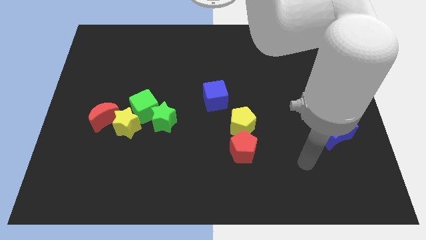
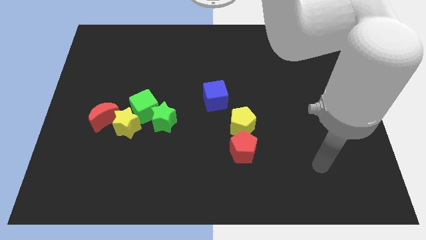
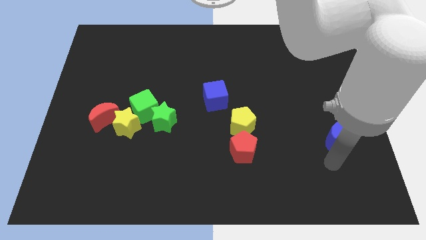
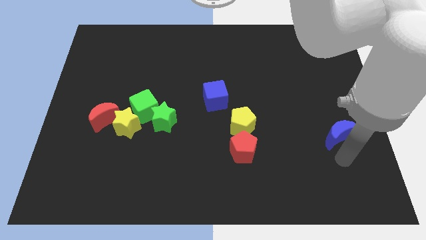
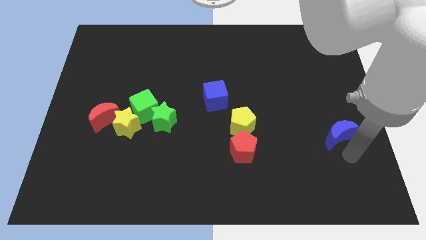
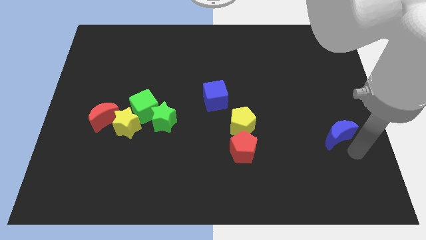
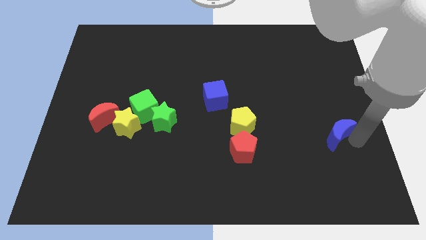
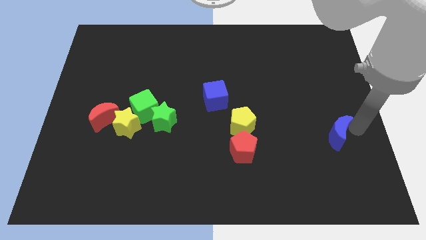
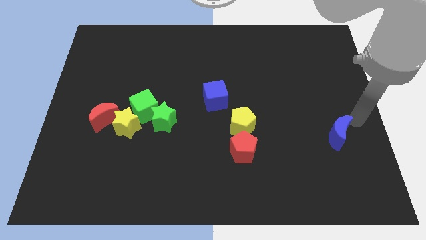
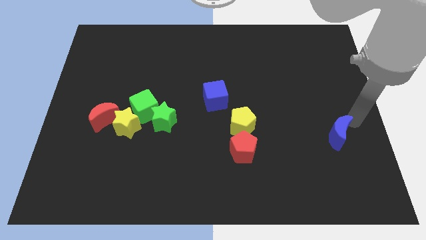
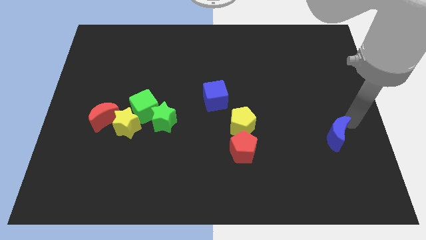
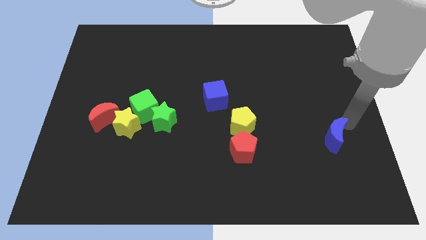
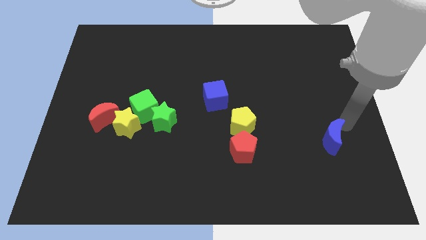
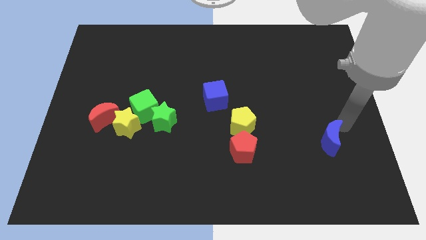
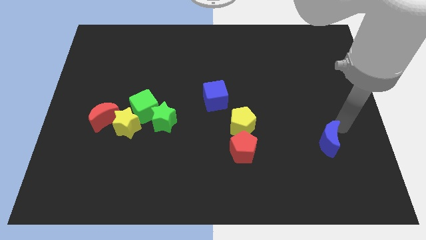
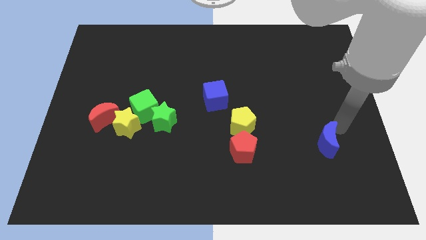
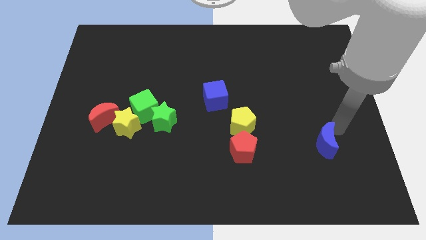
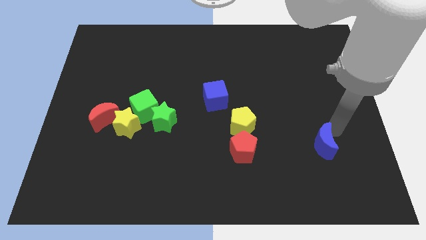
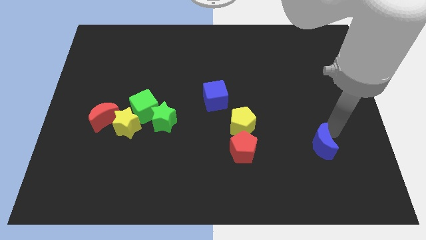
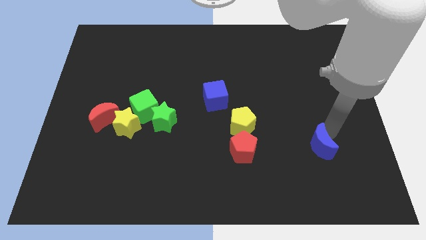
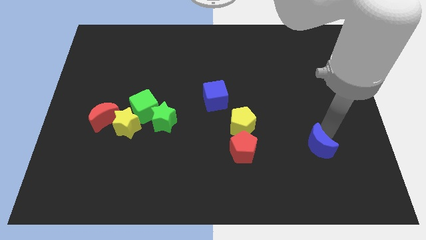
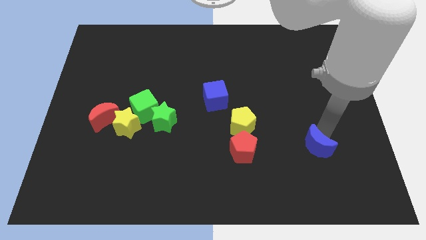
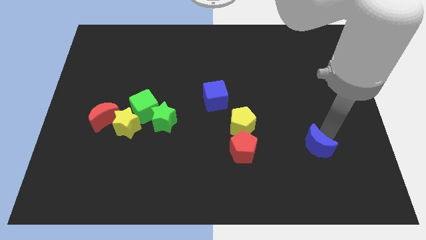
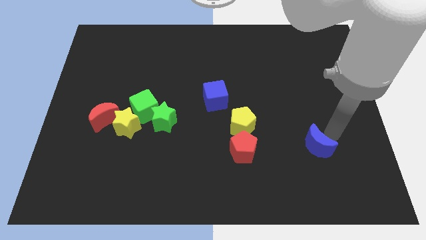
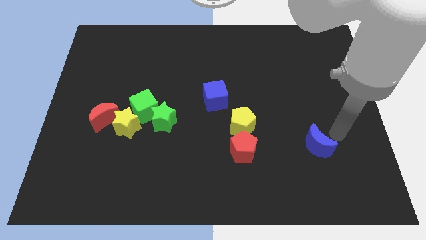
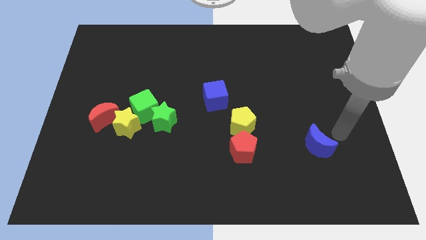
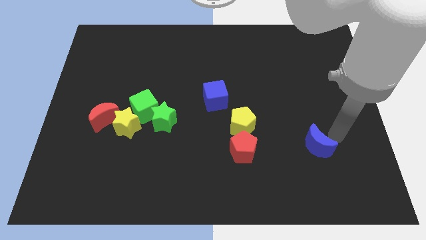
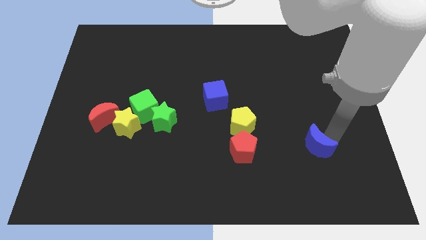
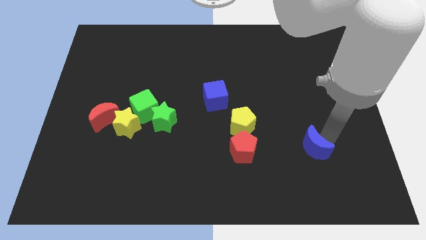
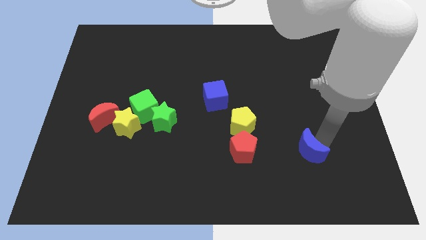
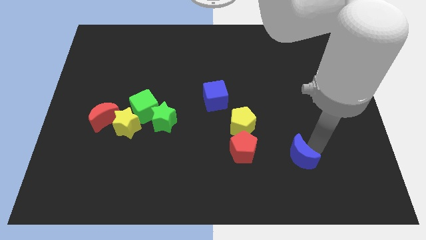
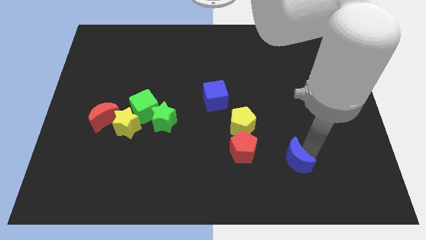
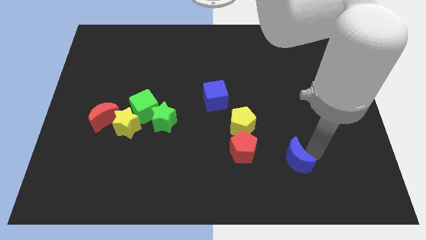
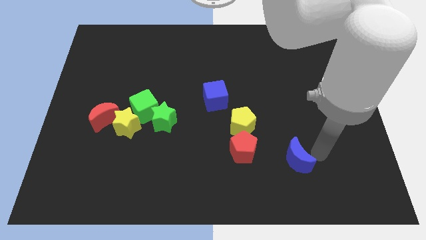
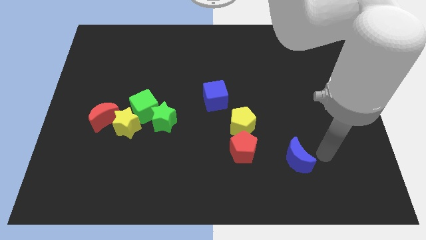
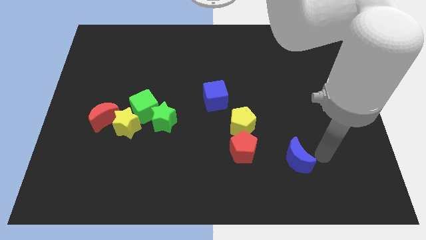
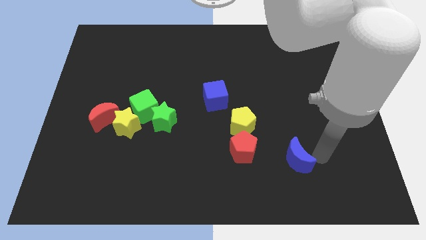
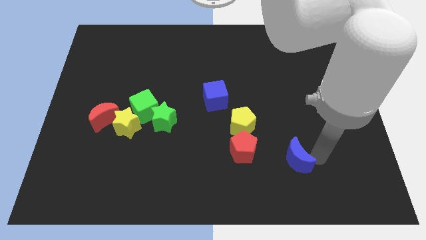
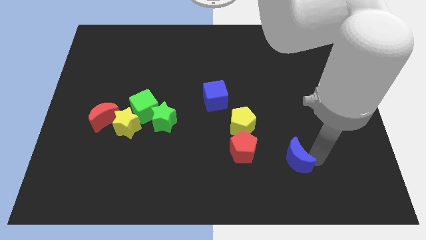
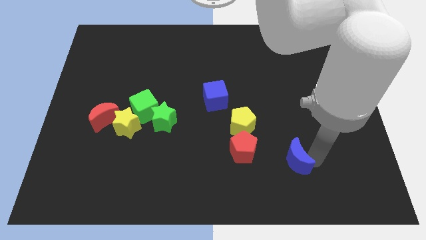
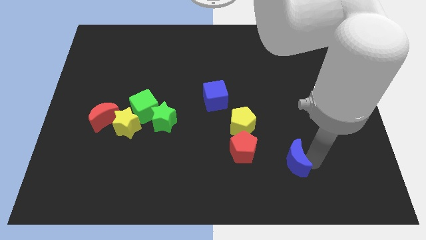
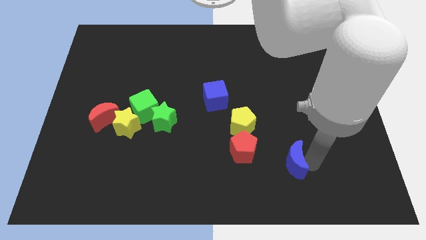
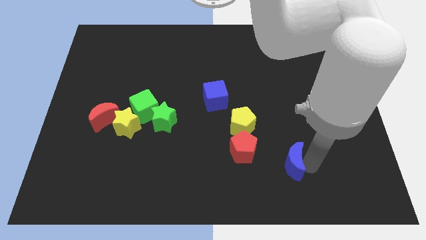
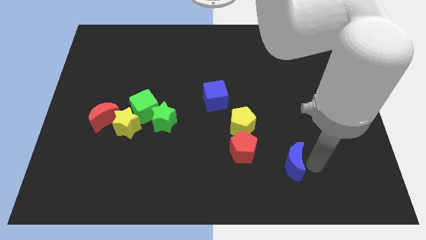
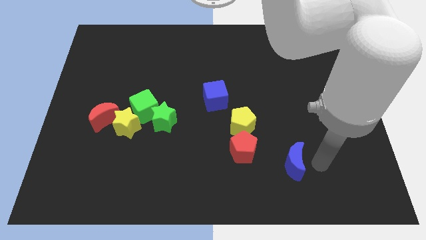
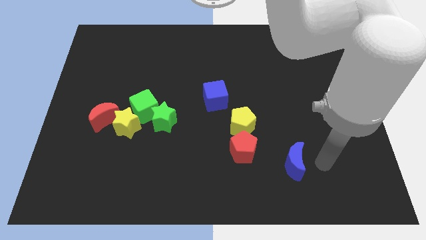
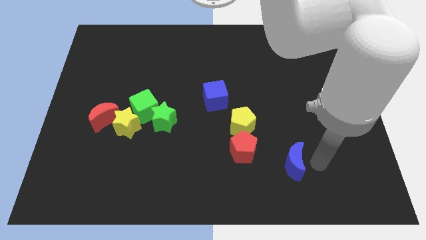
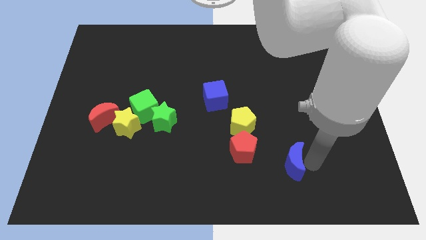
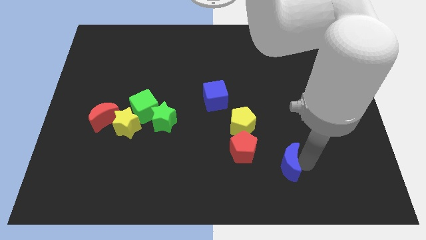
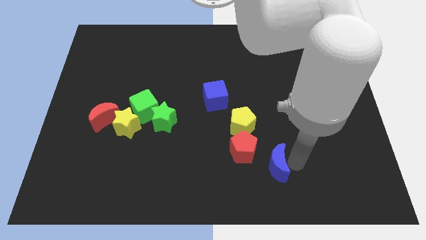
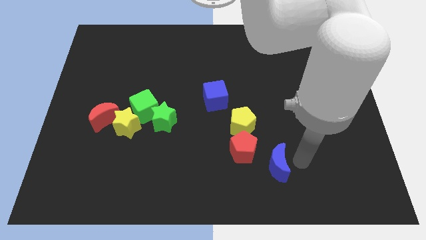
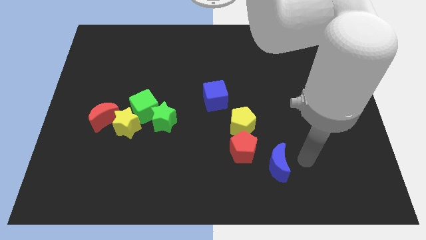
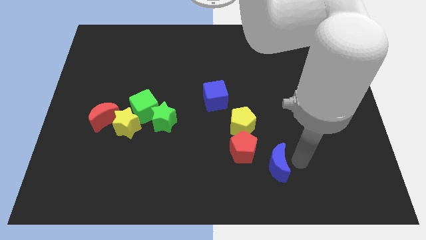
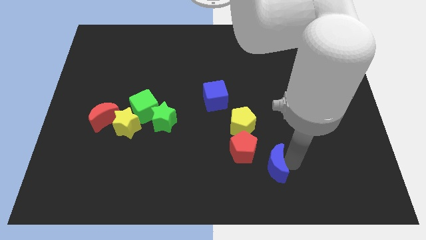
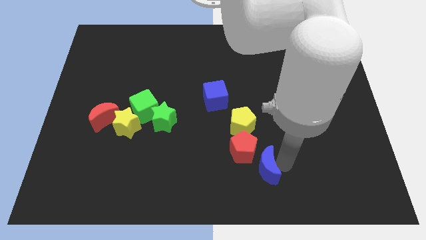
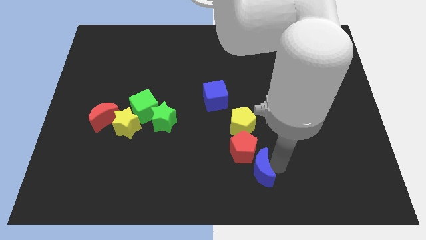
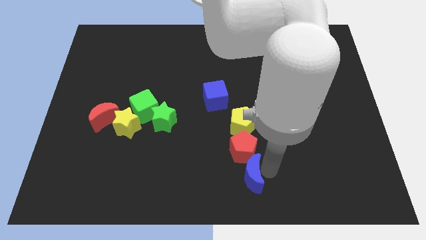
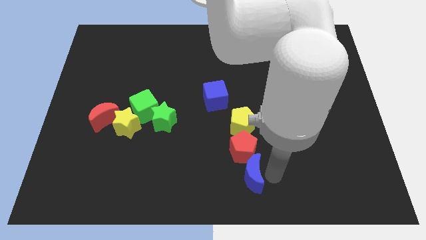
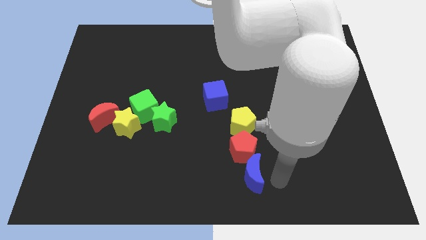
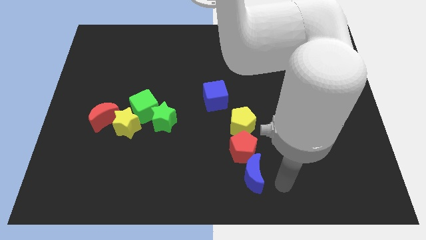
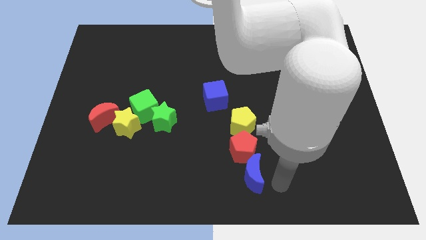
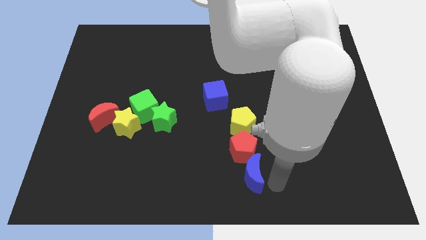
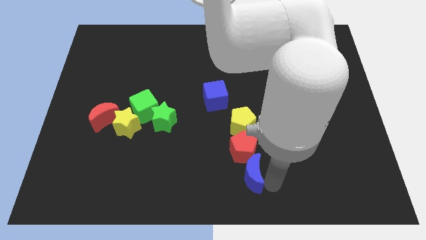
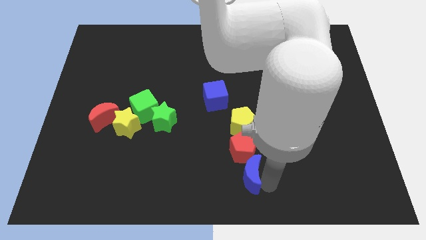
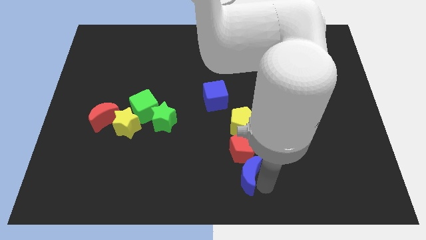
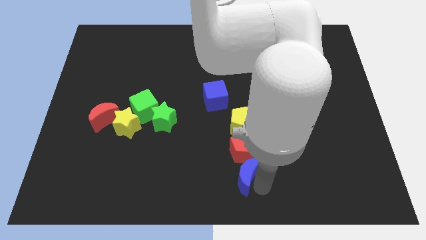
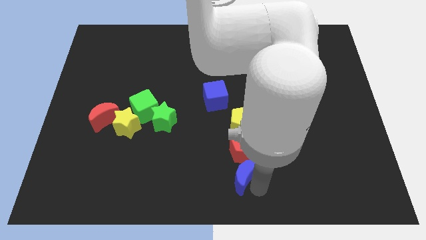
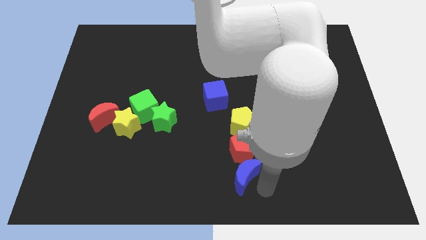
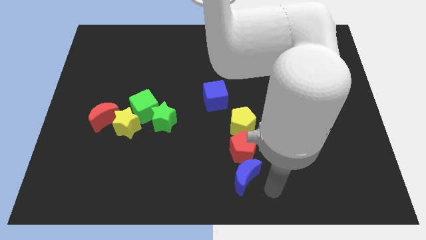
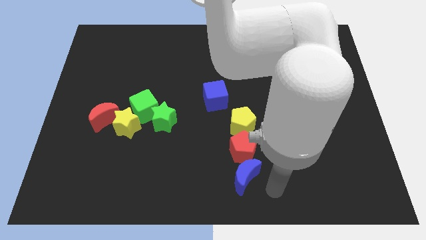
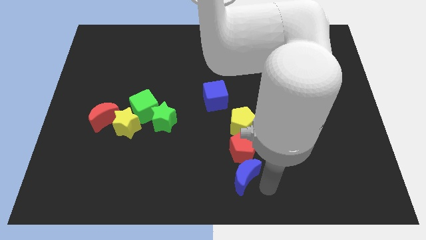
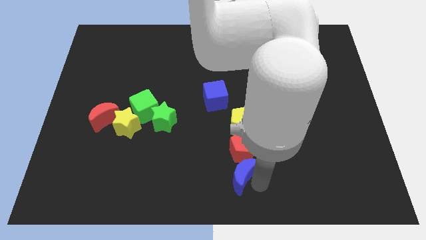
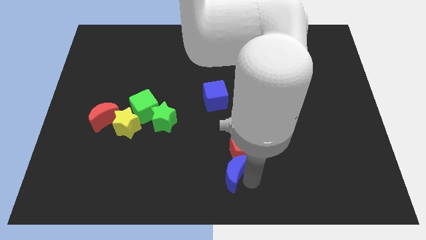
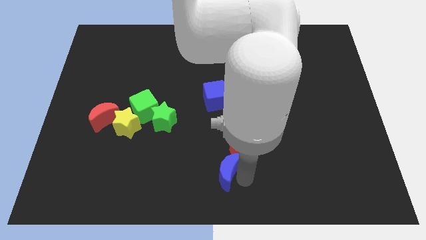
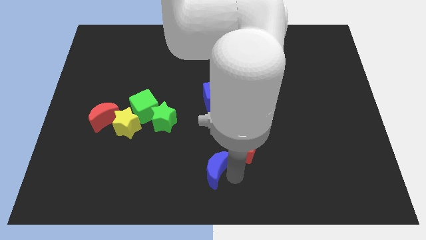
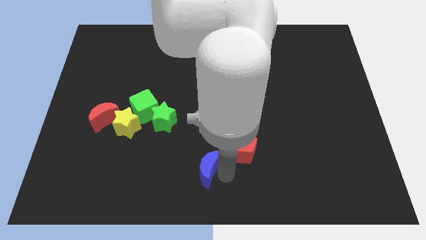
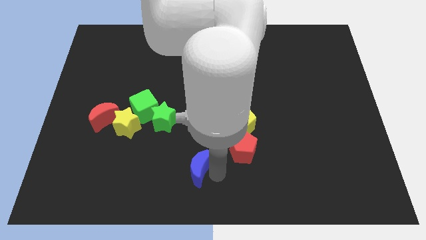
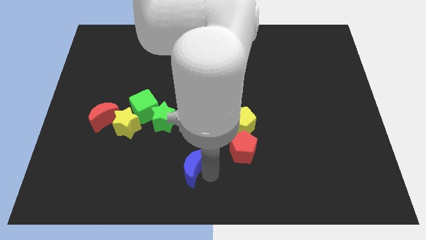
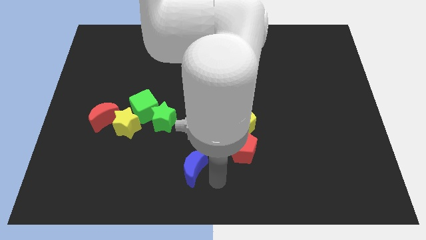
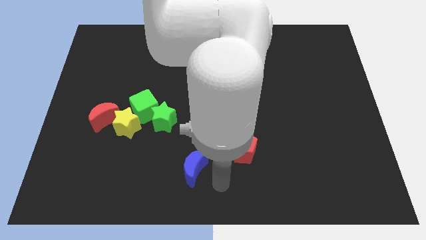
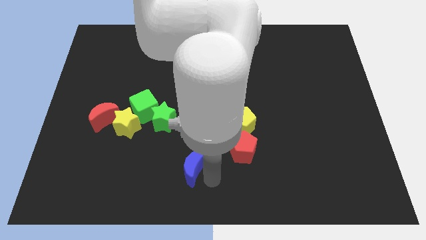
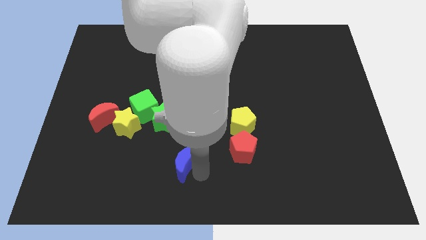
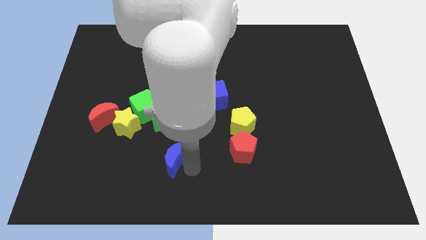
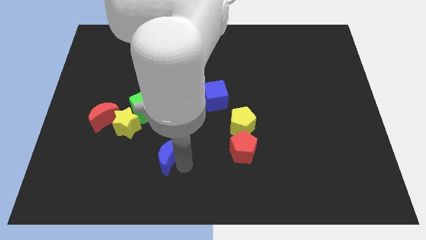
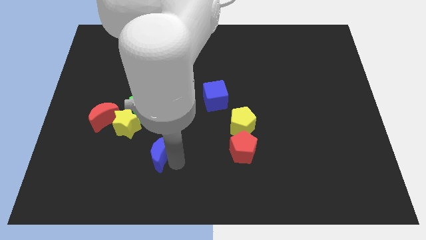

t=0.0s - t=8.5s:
move the blue moon to the bottom right side of the yellow star
